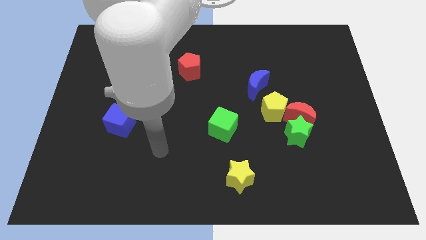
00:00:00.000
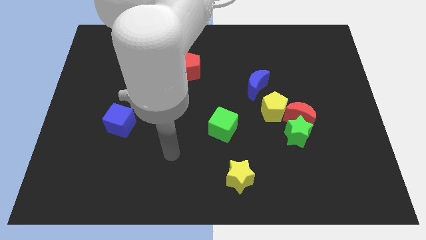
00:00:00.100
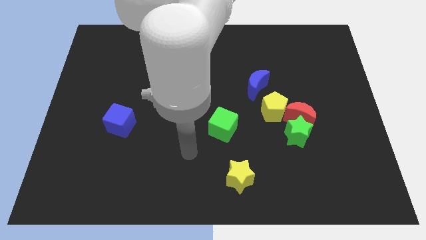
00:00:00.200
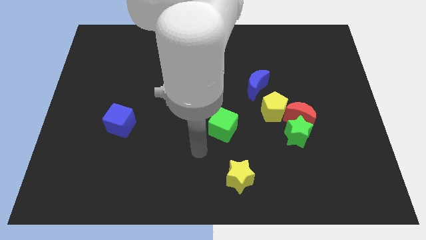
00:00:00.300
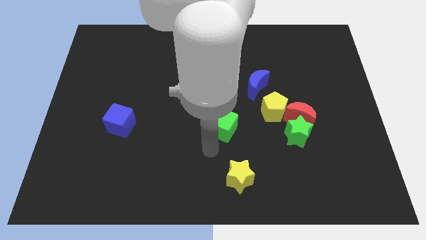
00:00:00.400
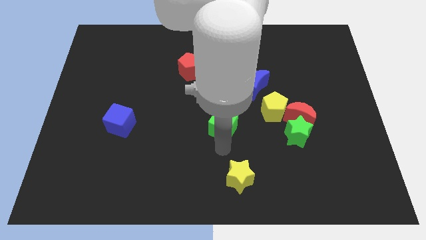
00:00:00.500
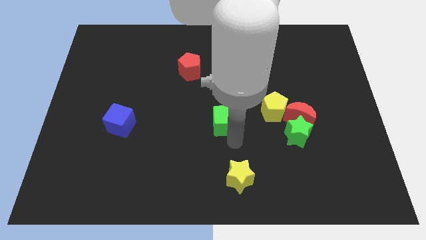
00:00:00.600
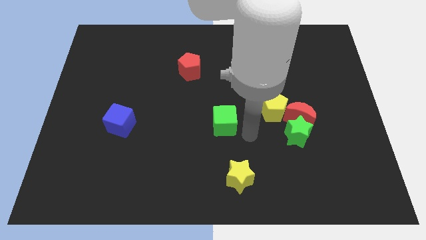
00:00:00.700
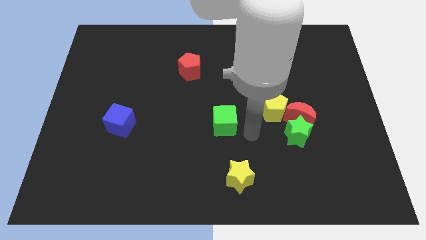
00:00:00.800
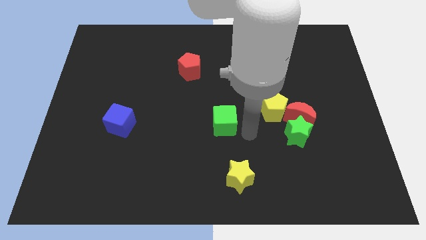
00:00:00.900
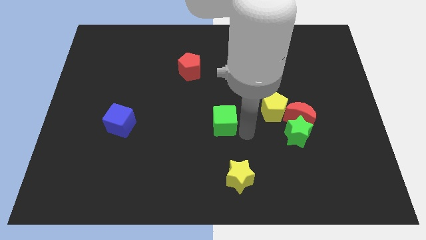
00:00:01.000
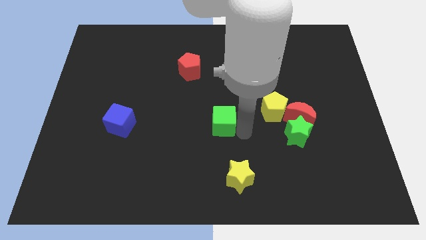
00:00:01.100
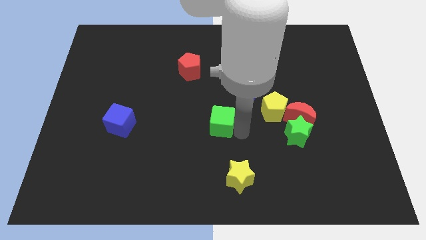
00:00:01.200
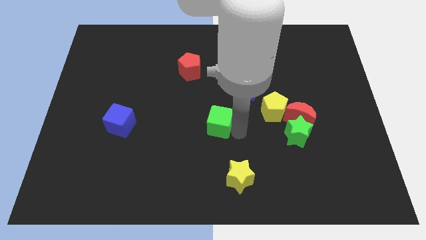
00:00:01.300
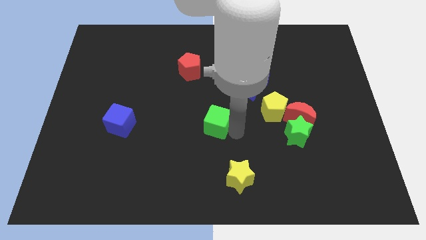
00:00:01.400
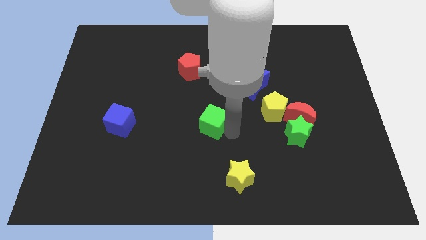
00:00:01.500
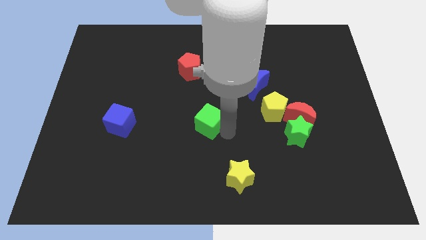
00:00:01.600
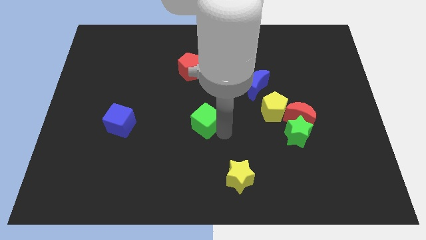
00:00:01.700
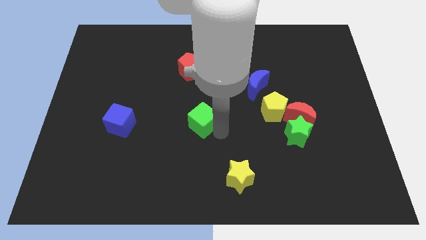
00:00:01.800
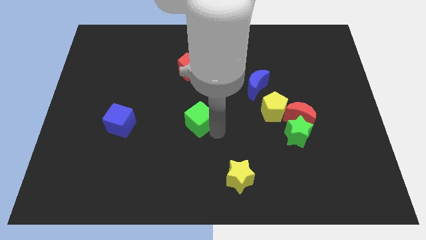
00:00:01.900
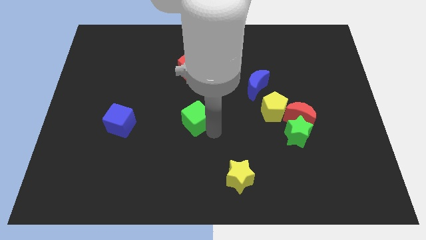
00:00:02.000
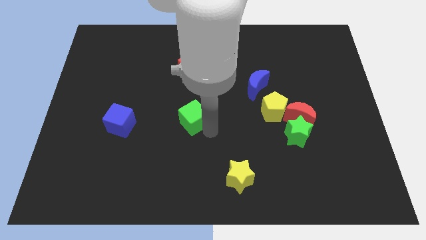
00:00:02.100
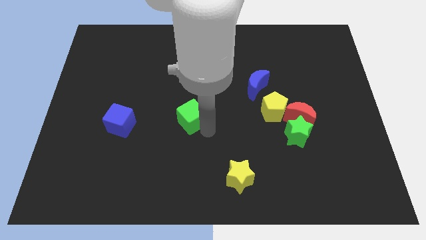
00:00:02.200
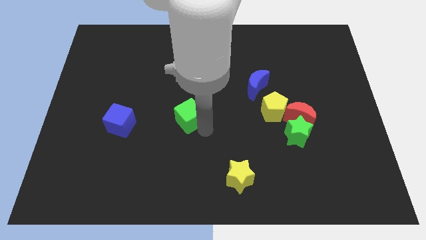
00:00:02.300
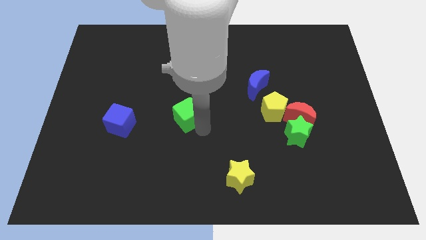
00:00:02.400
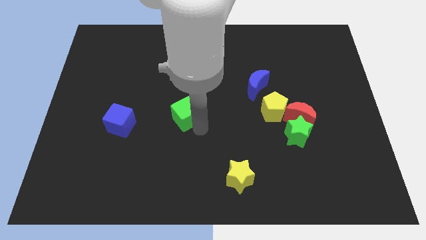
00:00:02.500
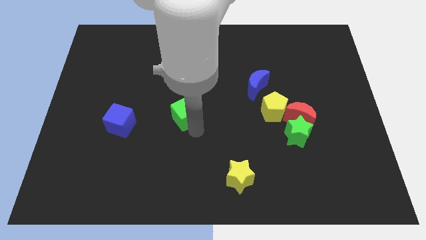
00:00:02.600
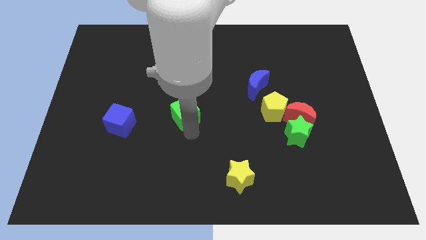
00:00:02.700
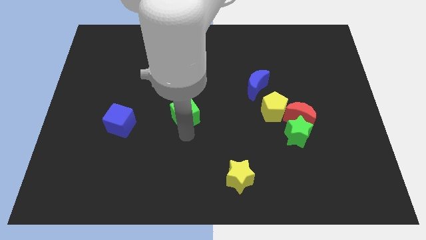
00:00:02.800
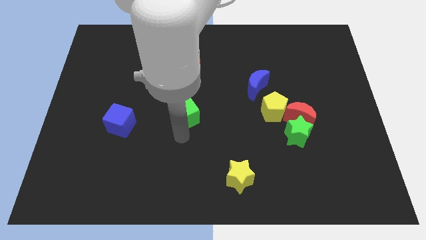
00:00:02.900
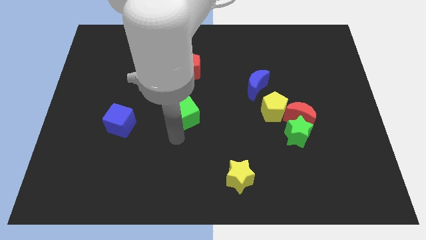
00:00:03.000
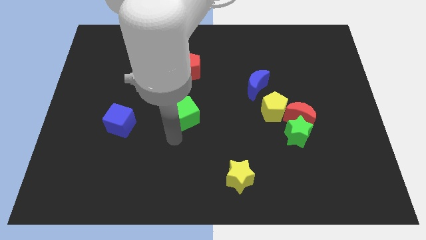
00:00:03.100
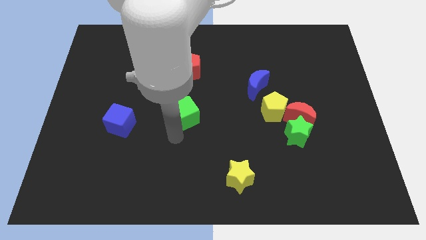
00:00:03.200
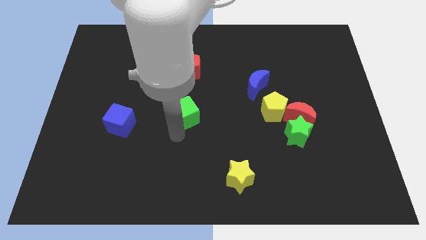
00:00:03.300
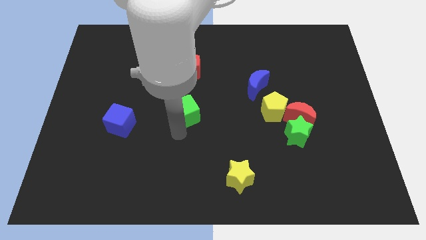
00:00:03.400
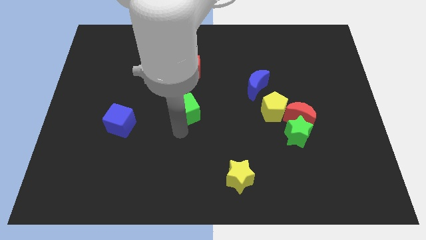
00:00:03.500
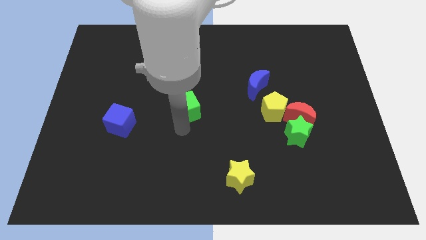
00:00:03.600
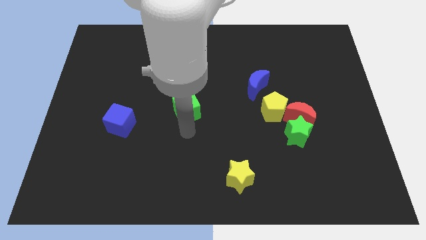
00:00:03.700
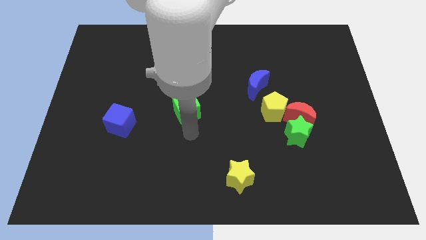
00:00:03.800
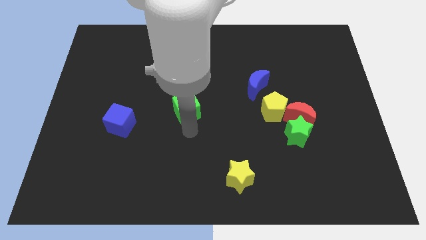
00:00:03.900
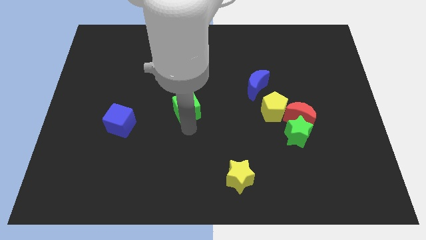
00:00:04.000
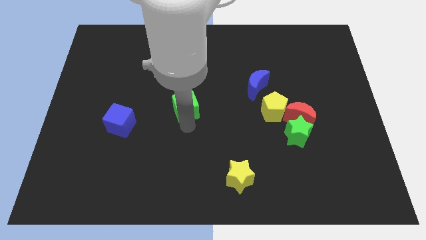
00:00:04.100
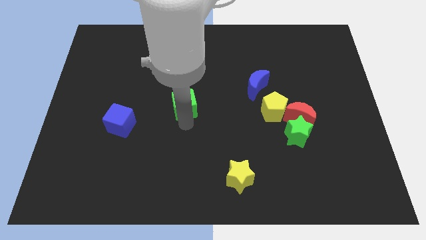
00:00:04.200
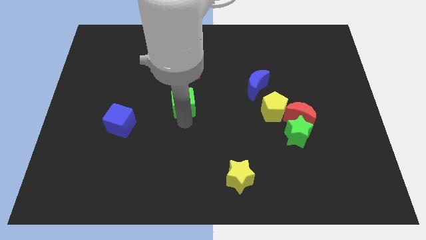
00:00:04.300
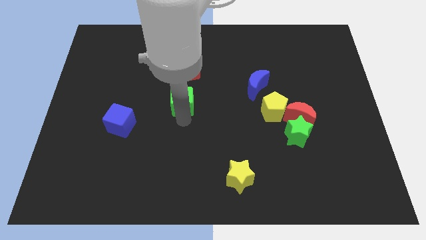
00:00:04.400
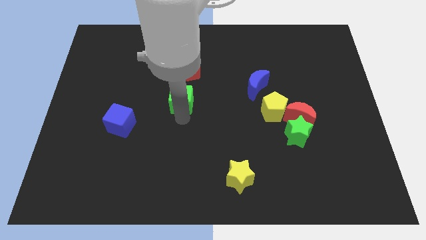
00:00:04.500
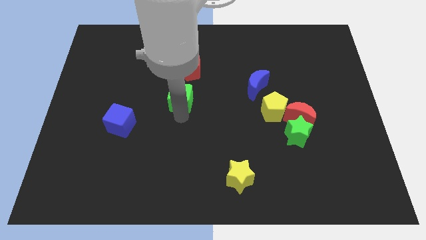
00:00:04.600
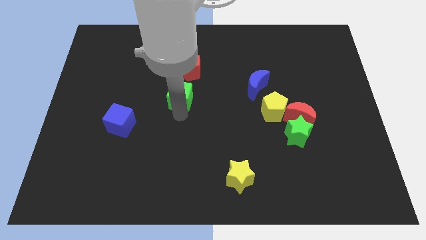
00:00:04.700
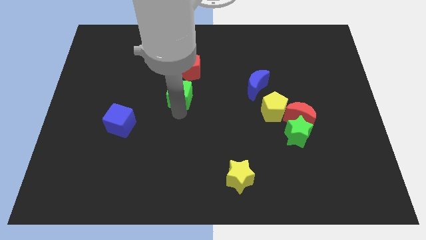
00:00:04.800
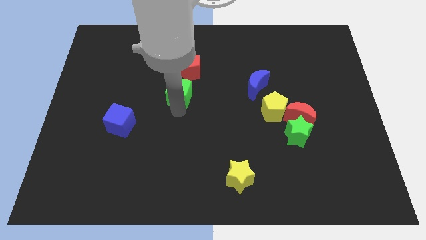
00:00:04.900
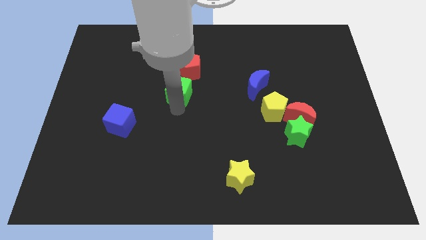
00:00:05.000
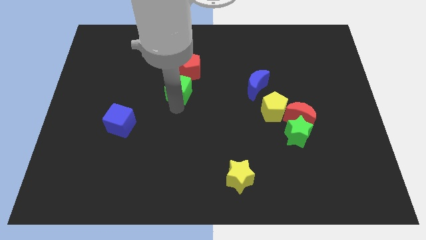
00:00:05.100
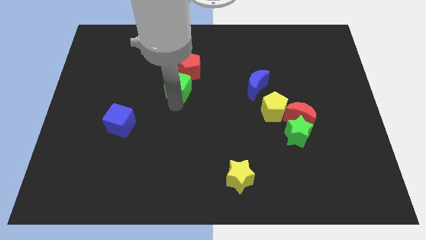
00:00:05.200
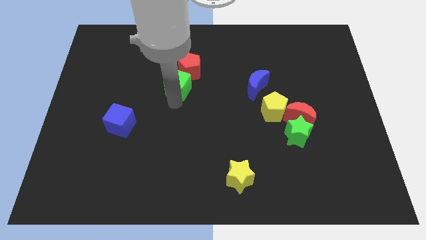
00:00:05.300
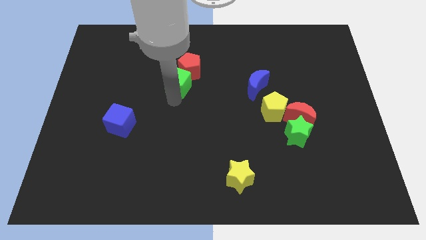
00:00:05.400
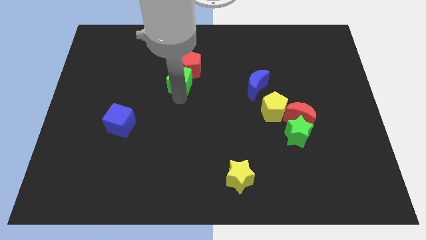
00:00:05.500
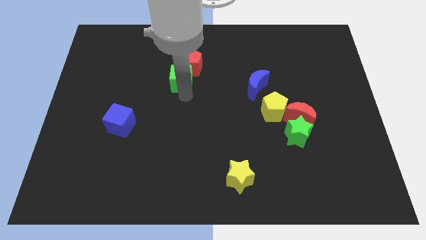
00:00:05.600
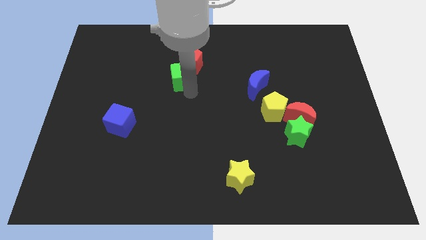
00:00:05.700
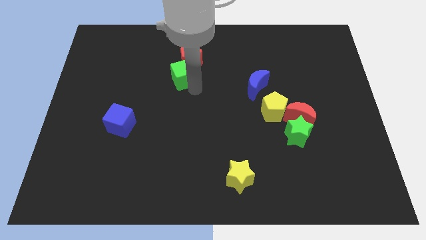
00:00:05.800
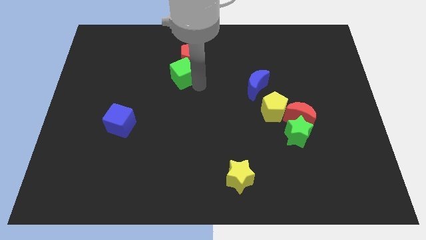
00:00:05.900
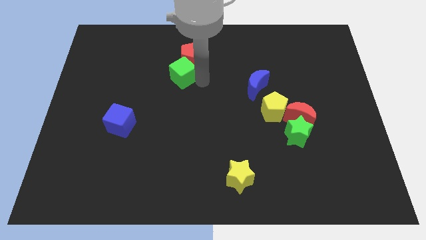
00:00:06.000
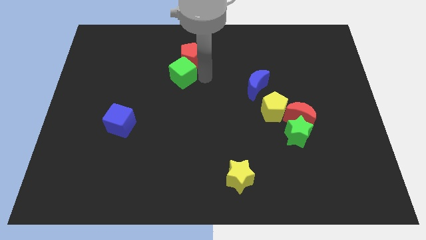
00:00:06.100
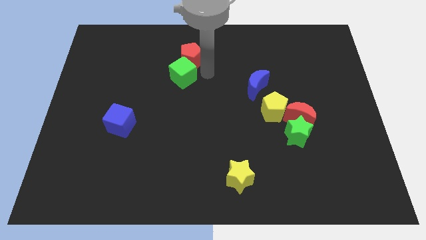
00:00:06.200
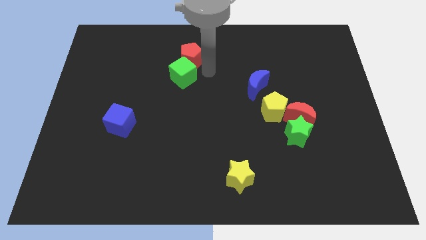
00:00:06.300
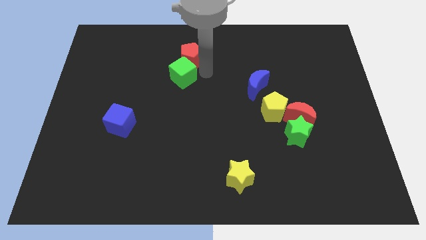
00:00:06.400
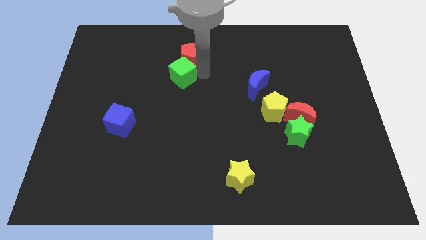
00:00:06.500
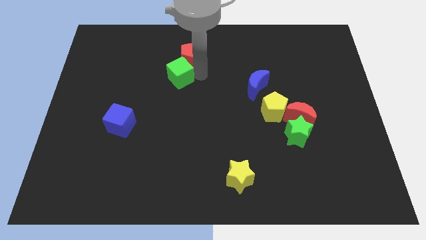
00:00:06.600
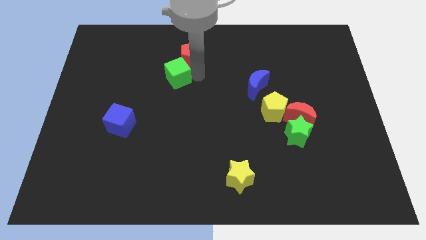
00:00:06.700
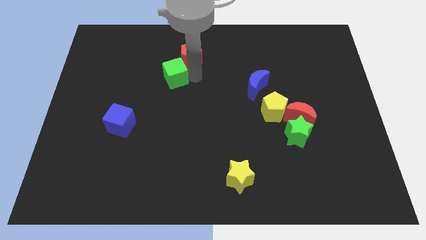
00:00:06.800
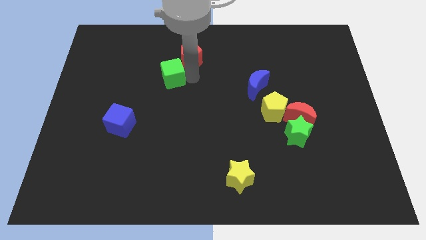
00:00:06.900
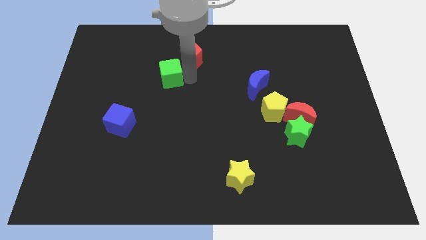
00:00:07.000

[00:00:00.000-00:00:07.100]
slide the green cube up and left diagonally

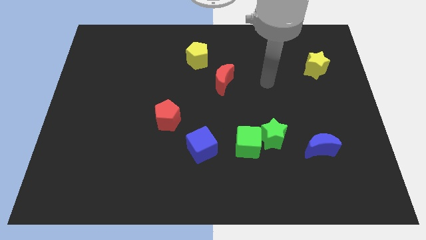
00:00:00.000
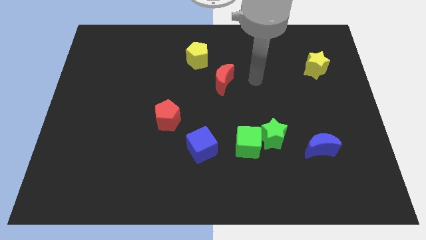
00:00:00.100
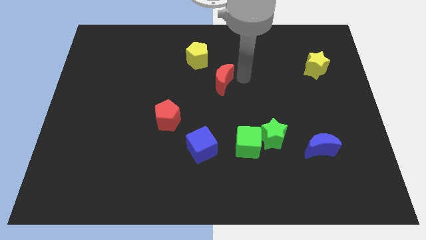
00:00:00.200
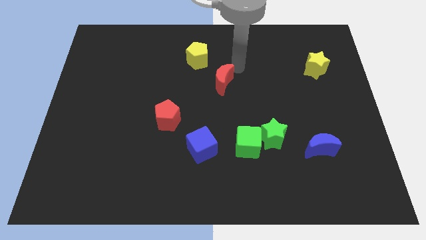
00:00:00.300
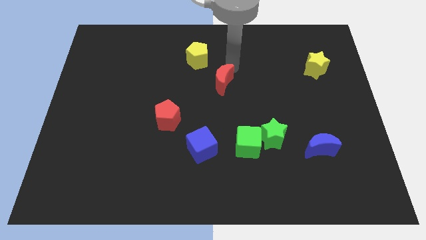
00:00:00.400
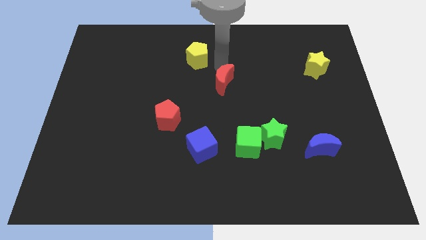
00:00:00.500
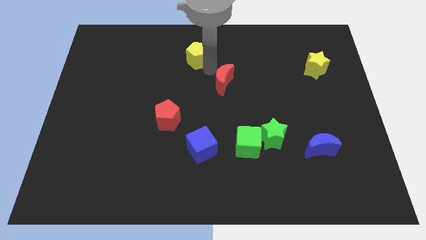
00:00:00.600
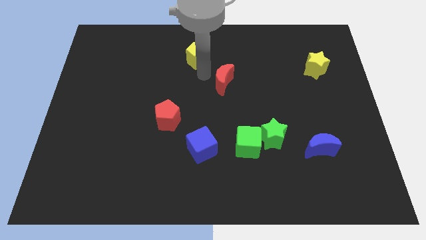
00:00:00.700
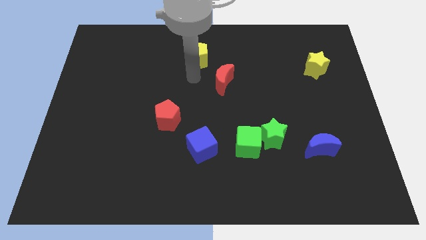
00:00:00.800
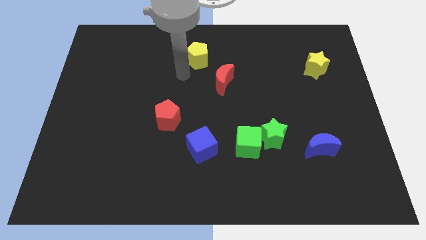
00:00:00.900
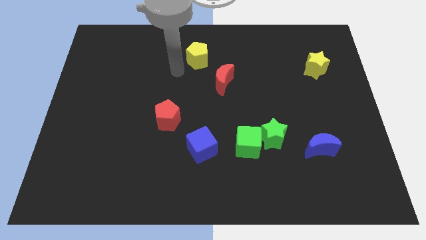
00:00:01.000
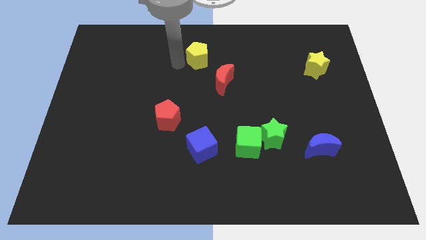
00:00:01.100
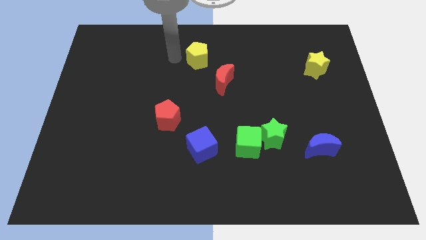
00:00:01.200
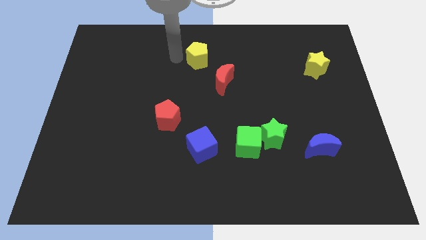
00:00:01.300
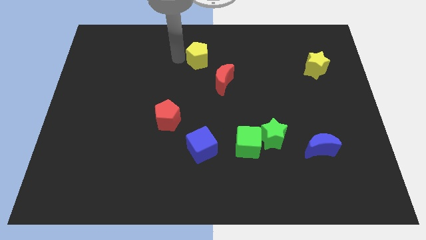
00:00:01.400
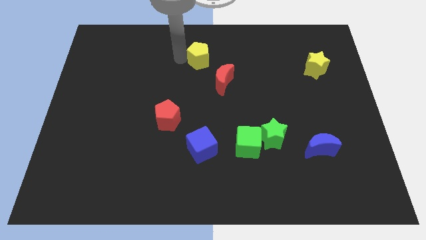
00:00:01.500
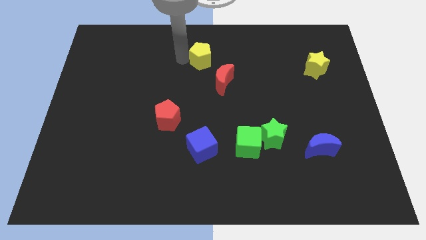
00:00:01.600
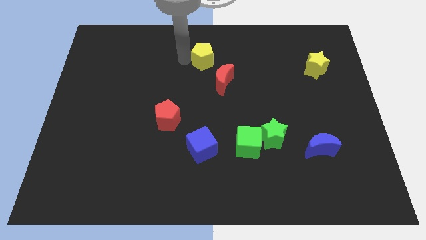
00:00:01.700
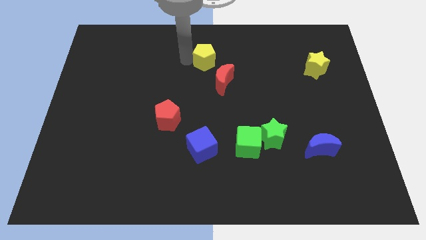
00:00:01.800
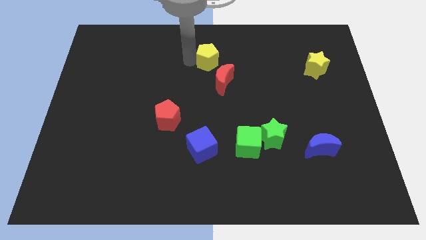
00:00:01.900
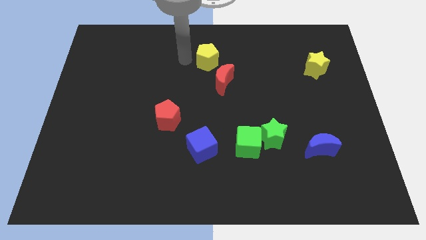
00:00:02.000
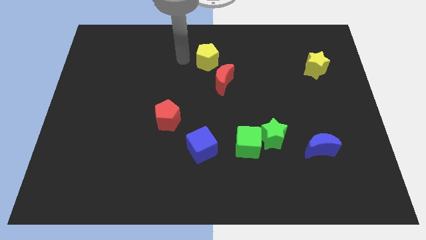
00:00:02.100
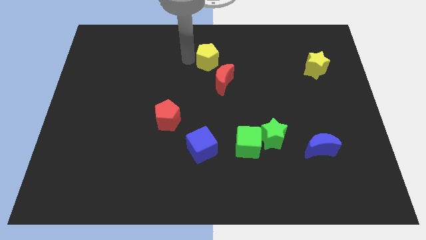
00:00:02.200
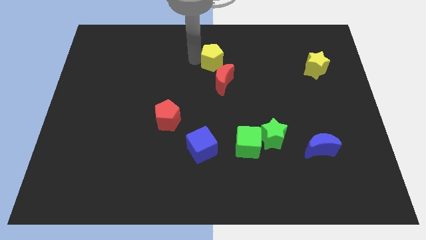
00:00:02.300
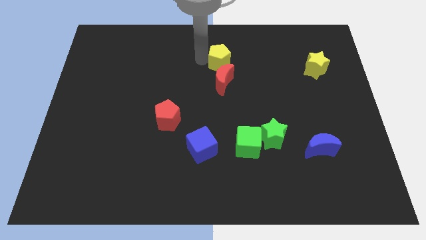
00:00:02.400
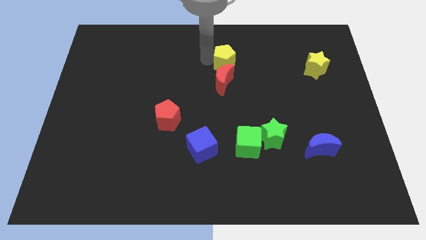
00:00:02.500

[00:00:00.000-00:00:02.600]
slightly slide the yellow pentagon right
